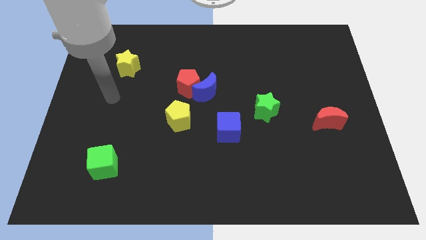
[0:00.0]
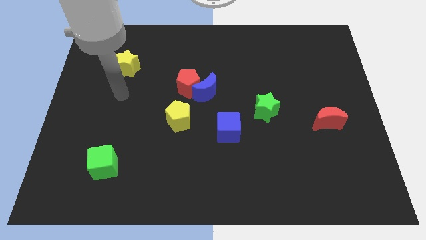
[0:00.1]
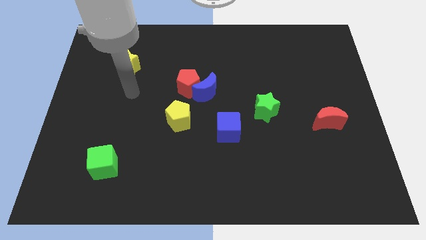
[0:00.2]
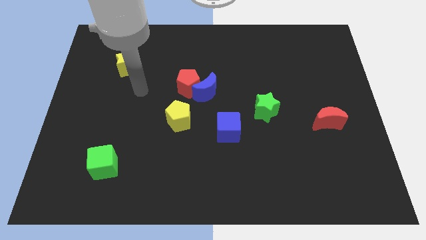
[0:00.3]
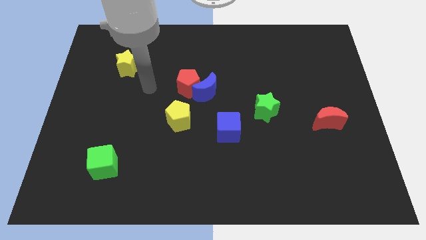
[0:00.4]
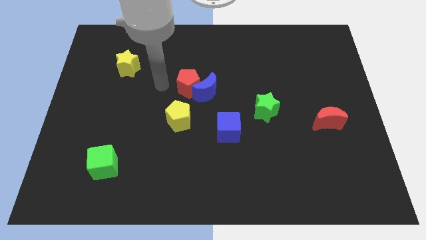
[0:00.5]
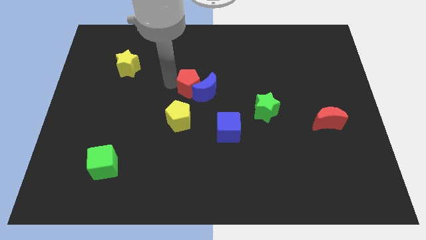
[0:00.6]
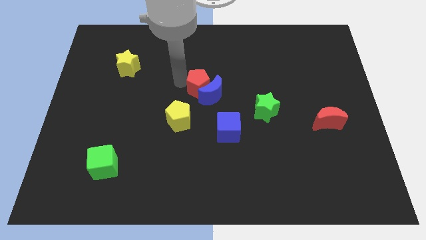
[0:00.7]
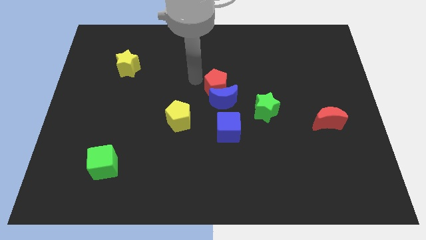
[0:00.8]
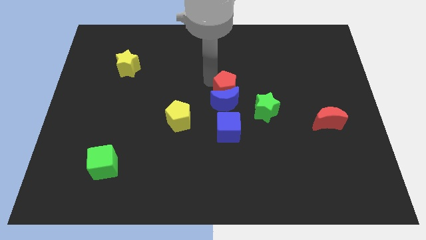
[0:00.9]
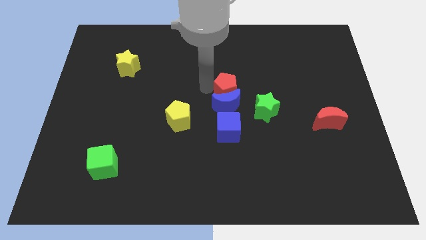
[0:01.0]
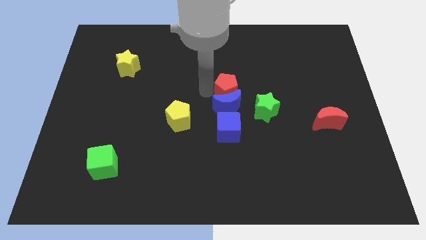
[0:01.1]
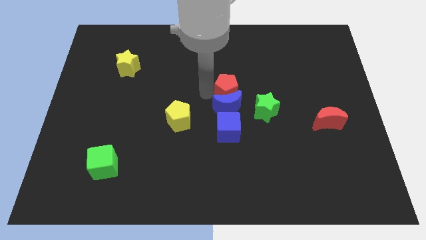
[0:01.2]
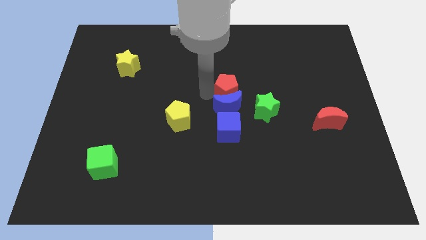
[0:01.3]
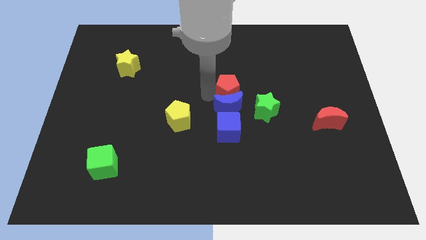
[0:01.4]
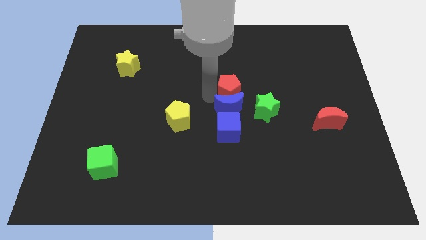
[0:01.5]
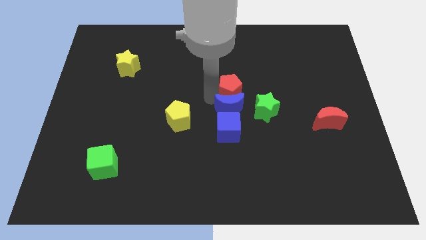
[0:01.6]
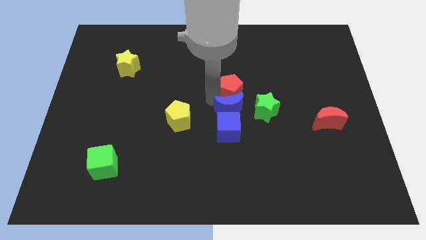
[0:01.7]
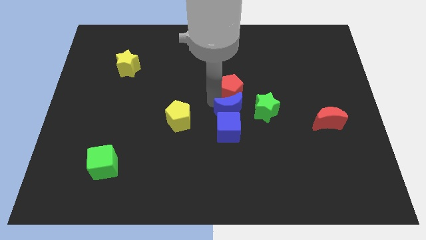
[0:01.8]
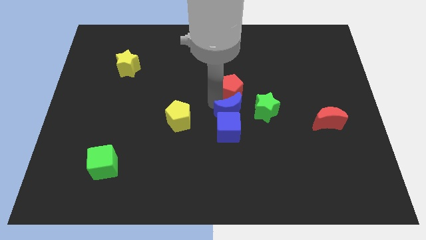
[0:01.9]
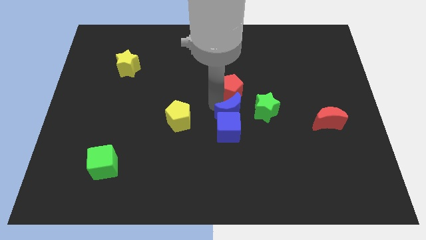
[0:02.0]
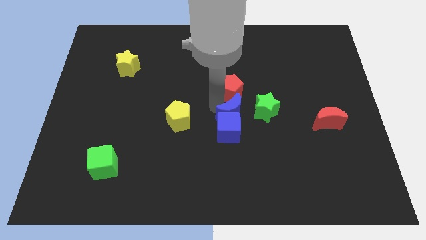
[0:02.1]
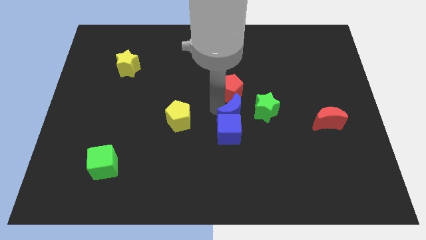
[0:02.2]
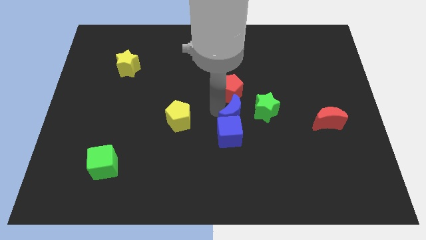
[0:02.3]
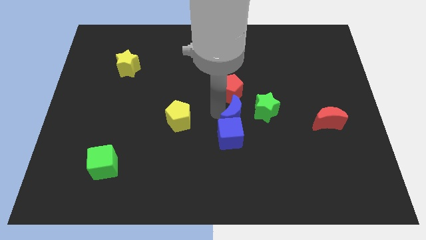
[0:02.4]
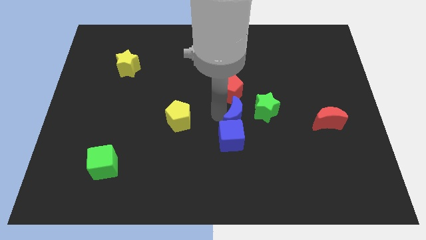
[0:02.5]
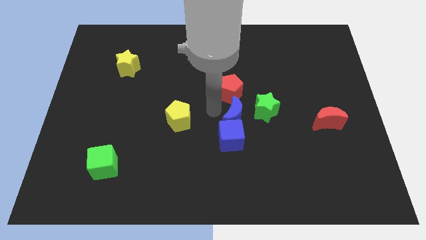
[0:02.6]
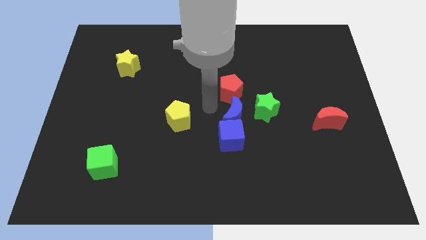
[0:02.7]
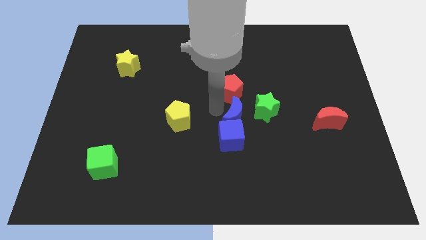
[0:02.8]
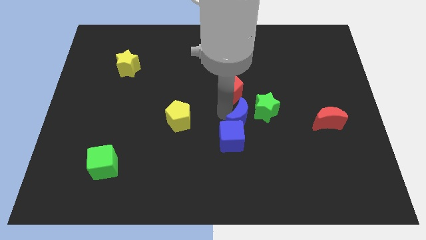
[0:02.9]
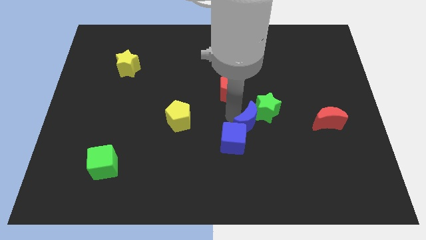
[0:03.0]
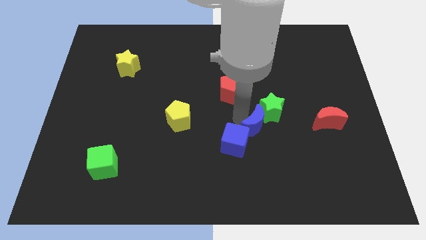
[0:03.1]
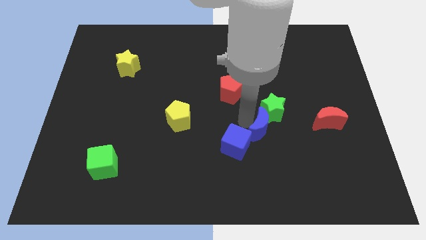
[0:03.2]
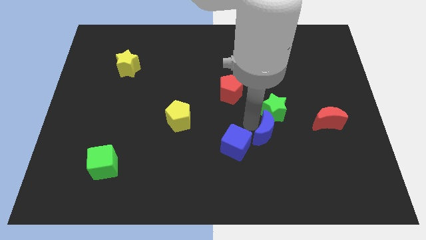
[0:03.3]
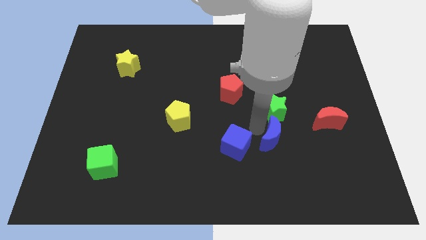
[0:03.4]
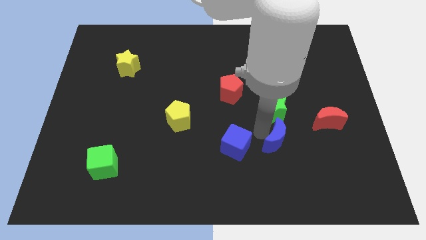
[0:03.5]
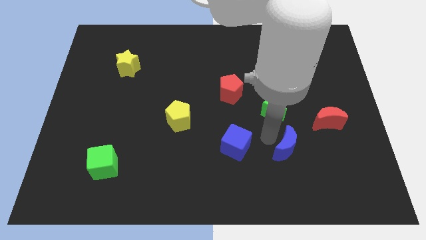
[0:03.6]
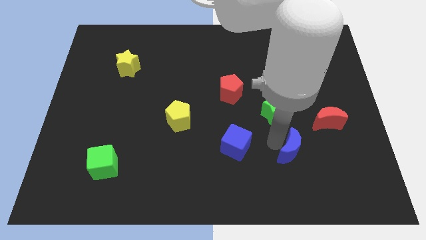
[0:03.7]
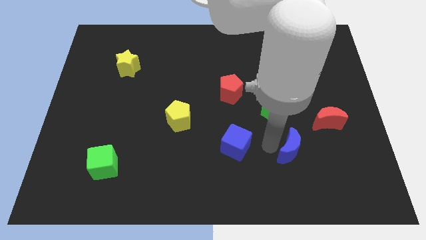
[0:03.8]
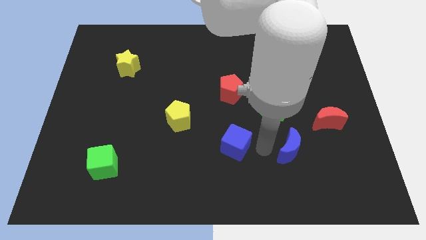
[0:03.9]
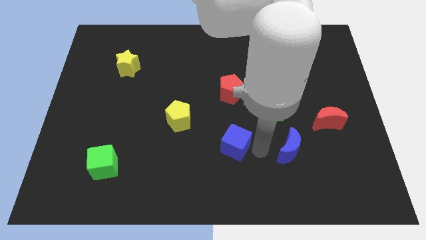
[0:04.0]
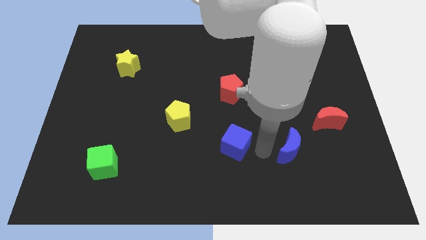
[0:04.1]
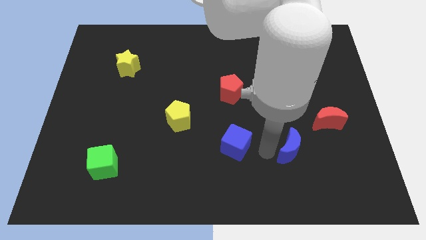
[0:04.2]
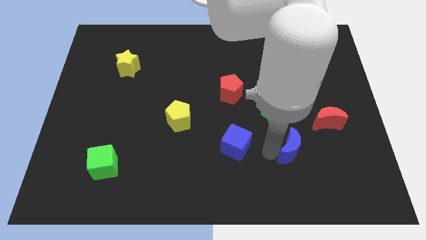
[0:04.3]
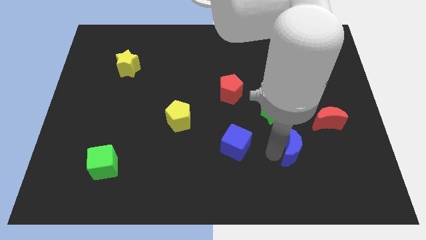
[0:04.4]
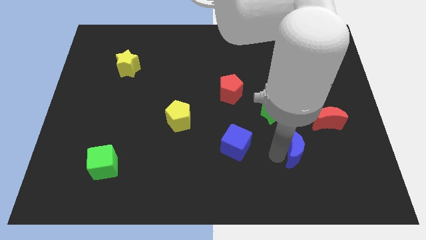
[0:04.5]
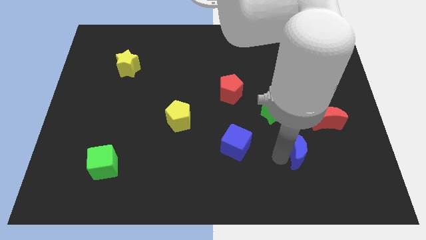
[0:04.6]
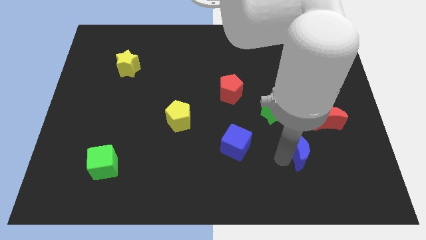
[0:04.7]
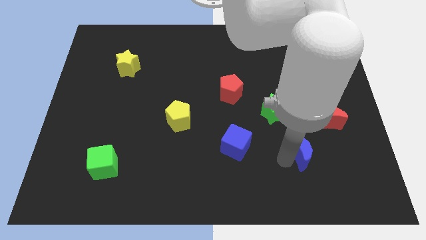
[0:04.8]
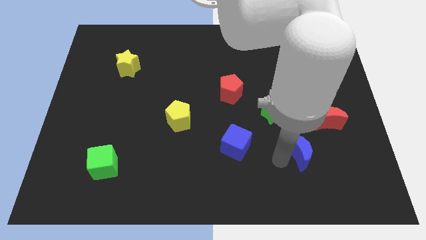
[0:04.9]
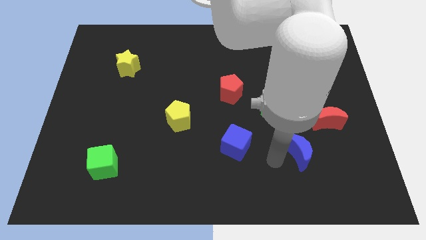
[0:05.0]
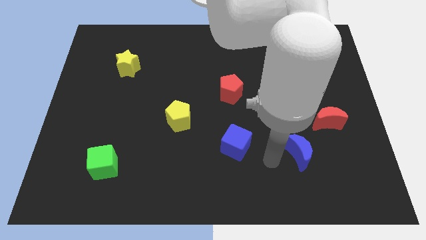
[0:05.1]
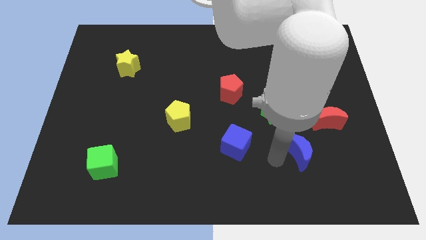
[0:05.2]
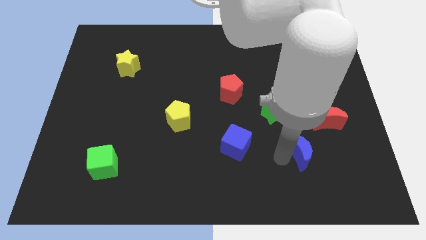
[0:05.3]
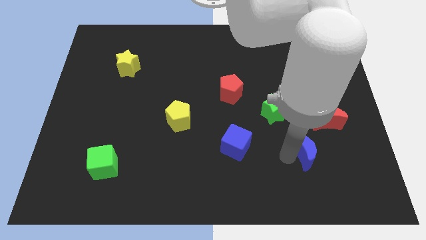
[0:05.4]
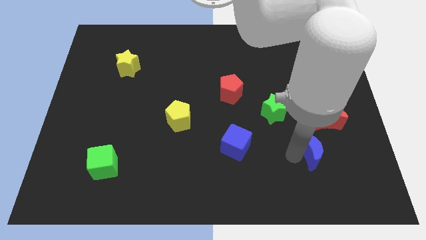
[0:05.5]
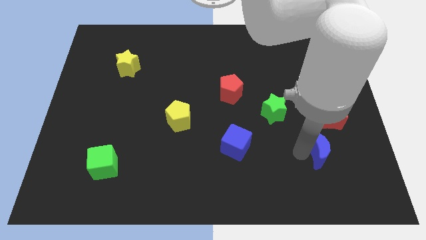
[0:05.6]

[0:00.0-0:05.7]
move the blue moon to the bottom side of the red moon

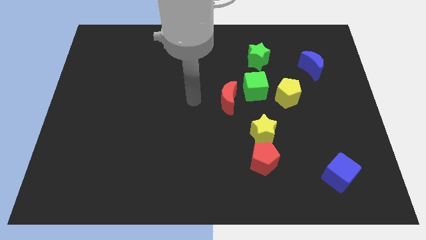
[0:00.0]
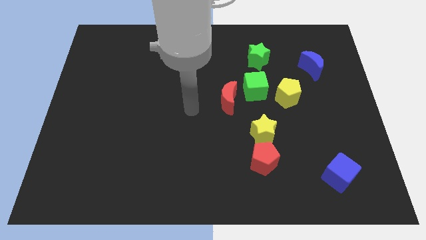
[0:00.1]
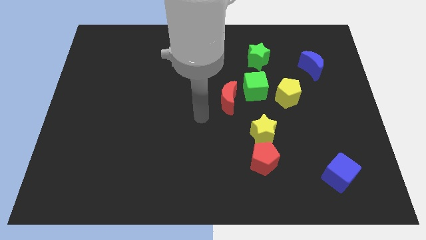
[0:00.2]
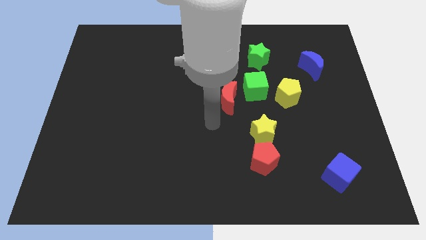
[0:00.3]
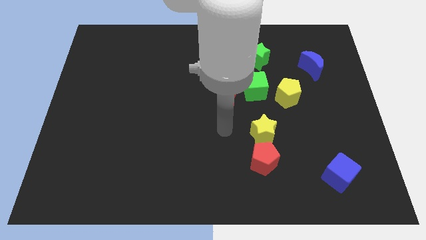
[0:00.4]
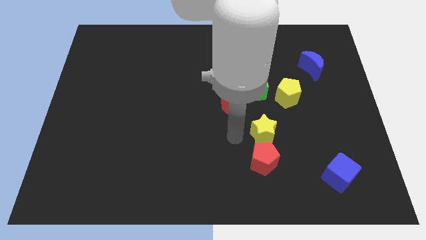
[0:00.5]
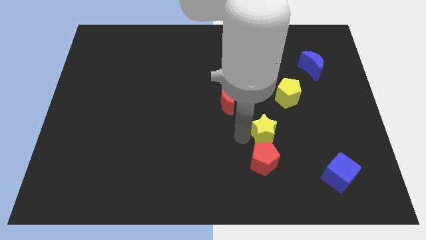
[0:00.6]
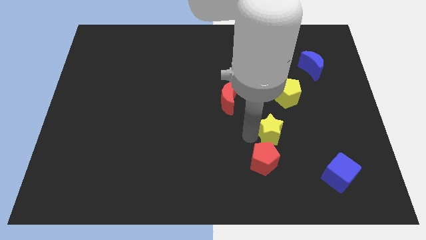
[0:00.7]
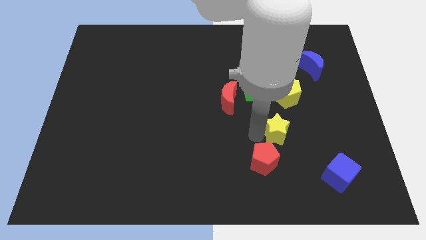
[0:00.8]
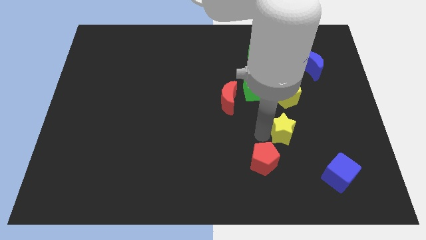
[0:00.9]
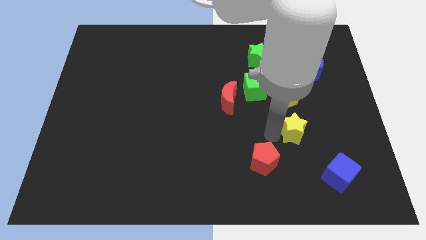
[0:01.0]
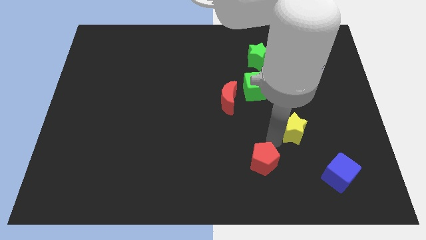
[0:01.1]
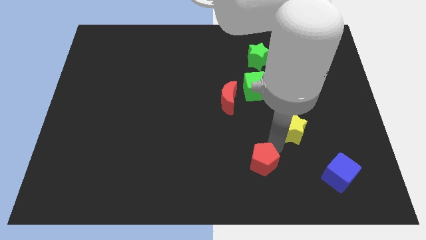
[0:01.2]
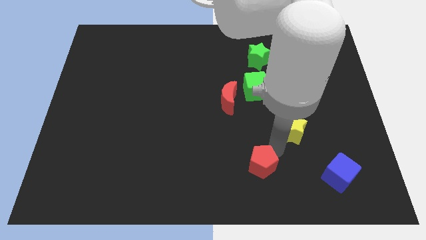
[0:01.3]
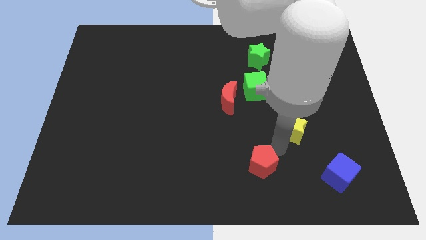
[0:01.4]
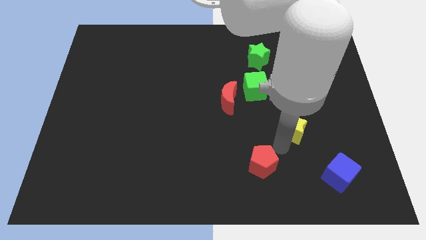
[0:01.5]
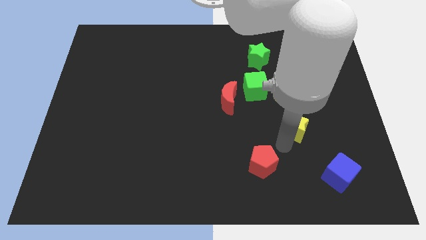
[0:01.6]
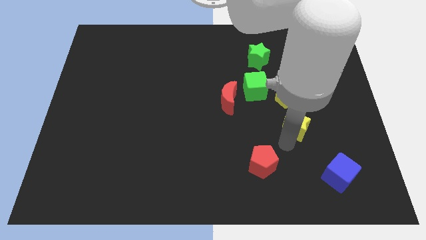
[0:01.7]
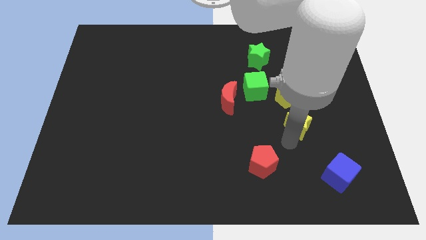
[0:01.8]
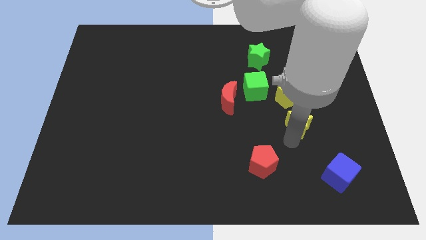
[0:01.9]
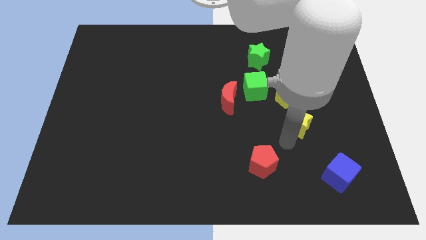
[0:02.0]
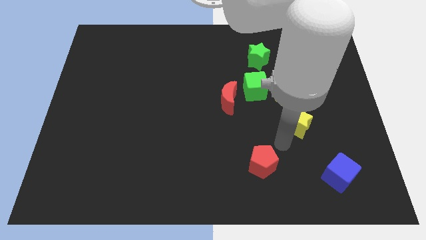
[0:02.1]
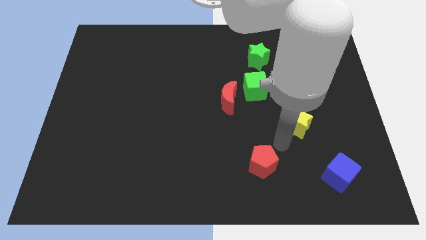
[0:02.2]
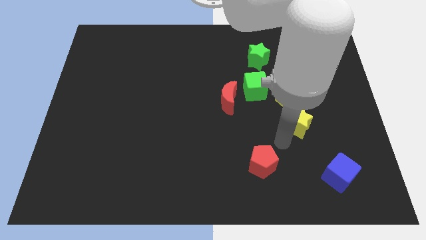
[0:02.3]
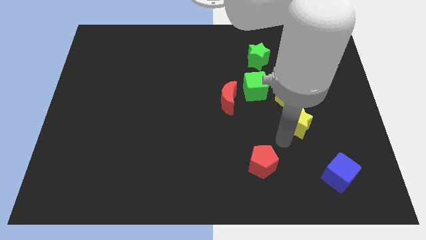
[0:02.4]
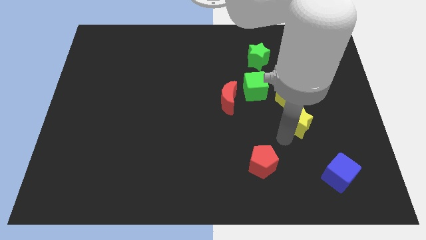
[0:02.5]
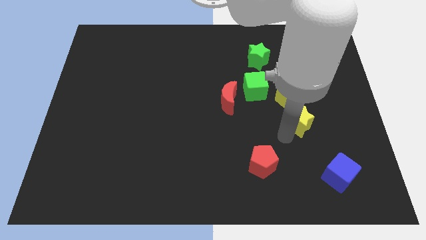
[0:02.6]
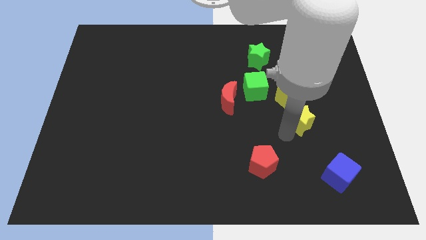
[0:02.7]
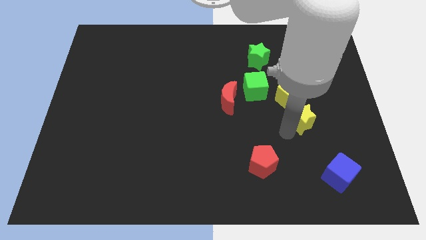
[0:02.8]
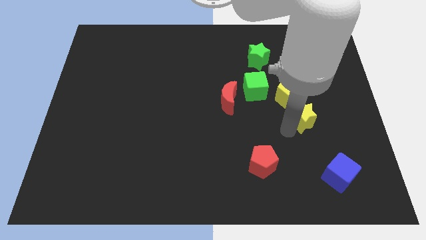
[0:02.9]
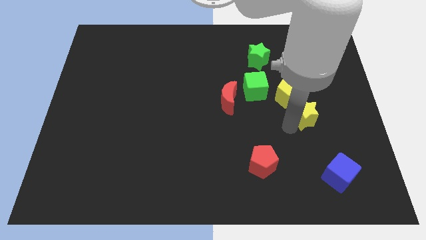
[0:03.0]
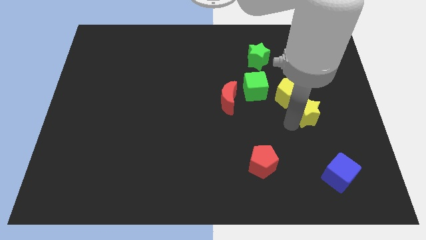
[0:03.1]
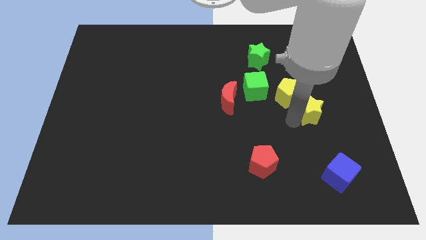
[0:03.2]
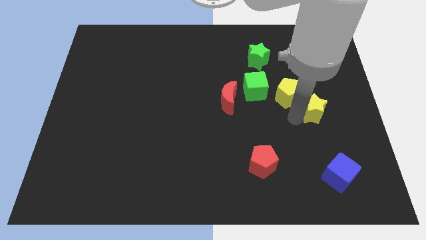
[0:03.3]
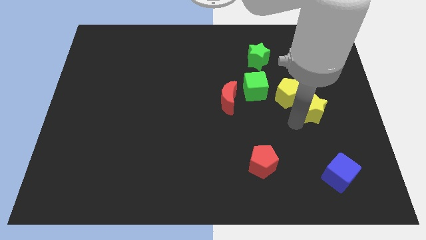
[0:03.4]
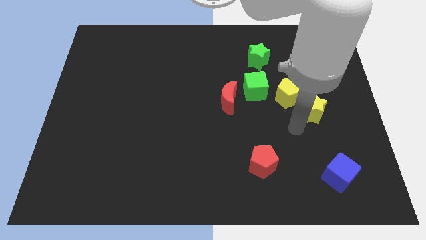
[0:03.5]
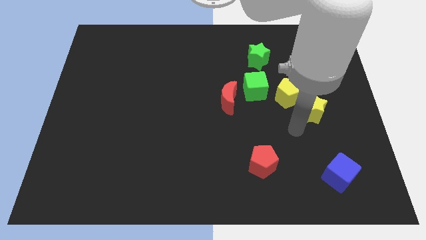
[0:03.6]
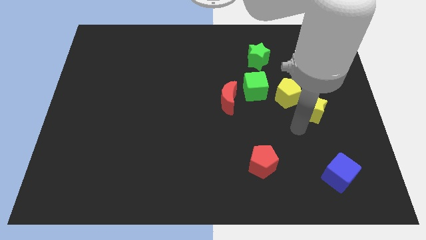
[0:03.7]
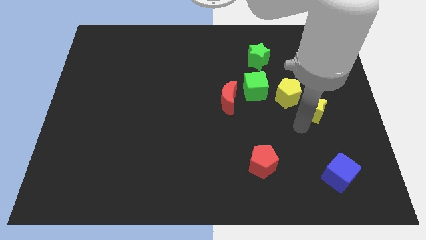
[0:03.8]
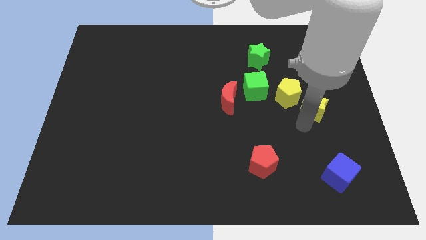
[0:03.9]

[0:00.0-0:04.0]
move the yellow star to the right of the yellow pentagon
